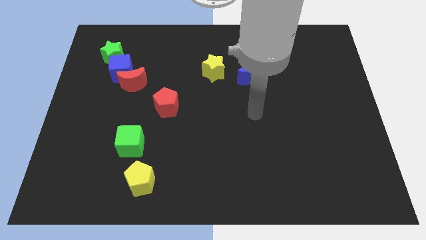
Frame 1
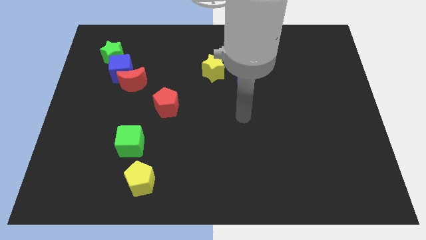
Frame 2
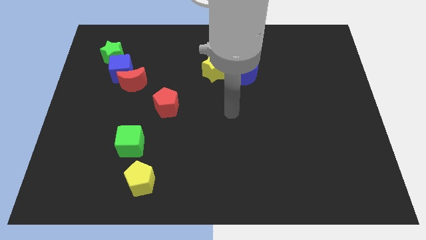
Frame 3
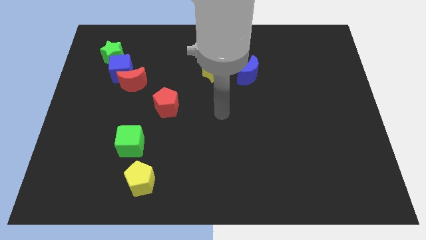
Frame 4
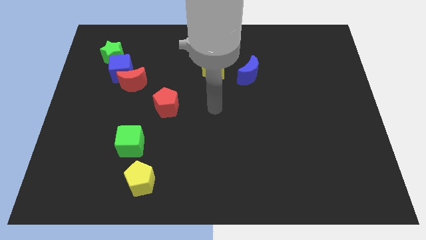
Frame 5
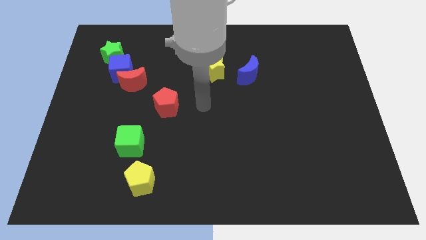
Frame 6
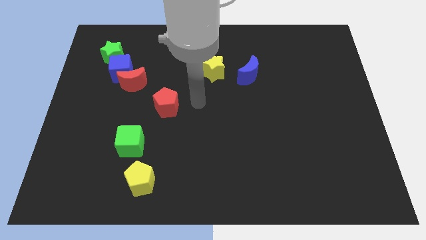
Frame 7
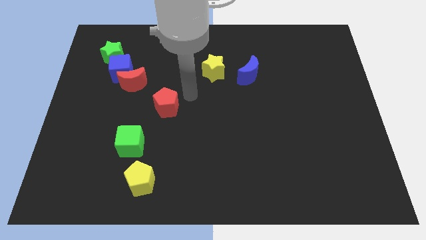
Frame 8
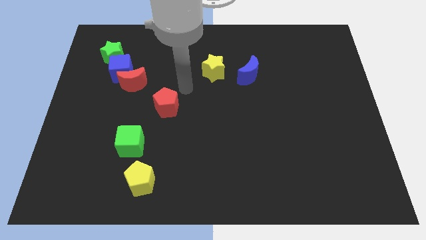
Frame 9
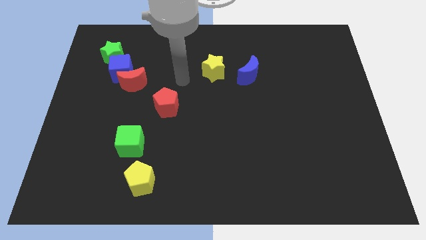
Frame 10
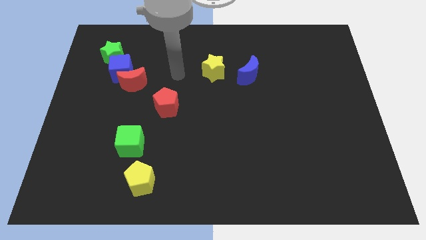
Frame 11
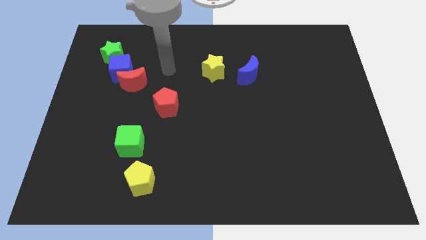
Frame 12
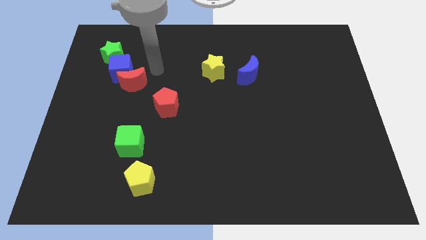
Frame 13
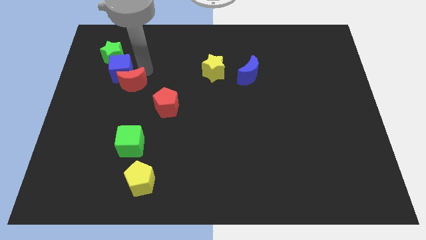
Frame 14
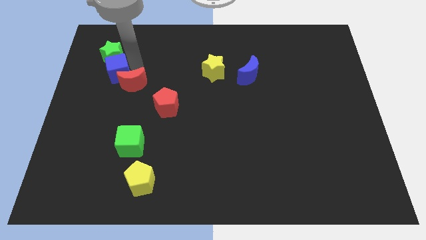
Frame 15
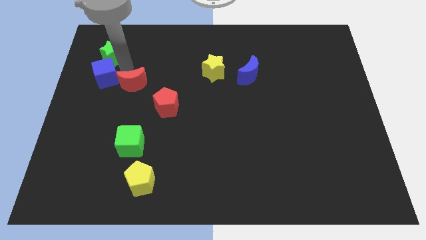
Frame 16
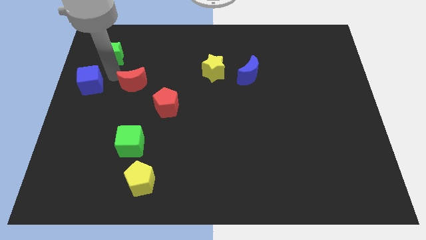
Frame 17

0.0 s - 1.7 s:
move the red moon away from the blue cube

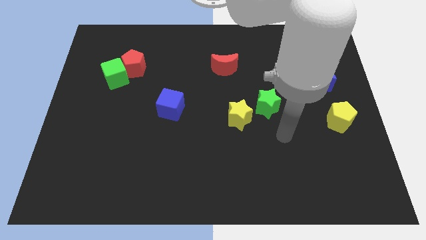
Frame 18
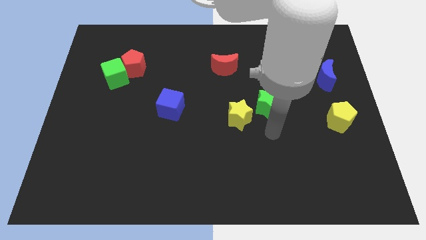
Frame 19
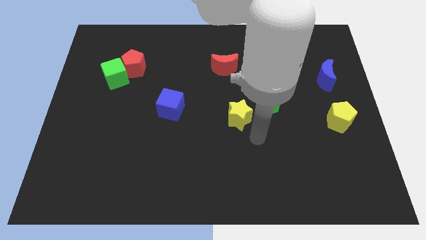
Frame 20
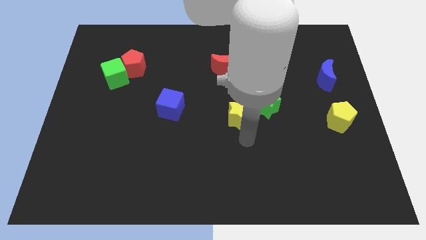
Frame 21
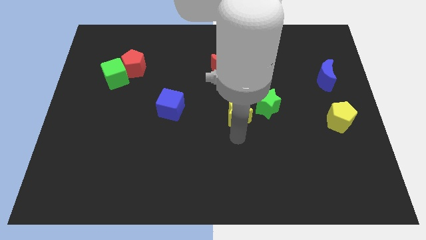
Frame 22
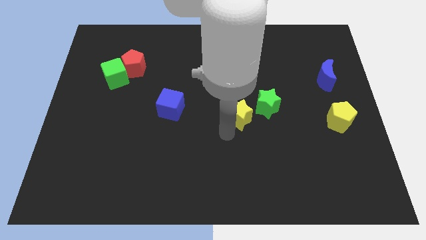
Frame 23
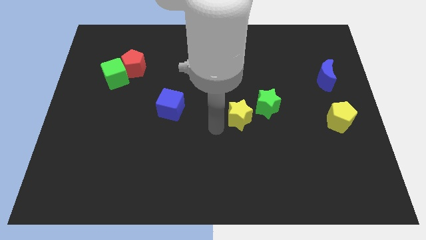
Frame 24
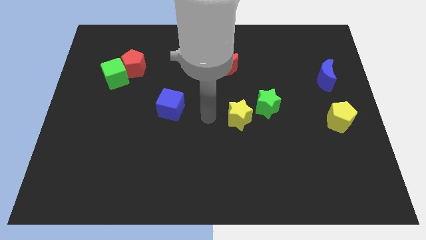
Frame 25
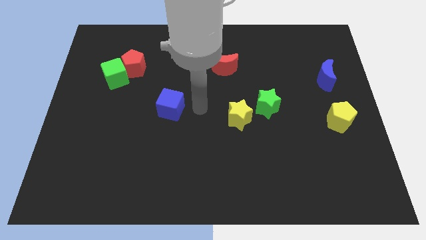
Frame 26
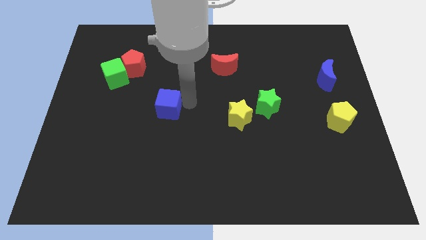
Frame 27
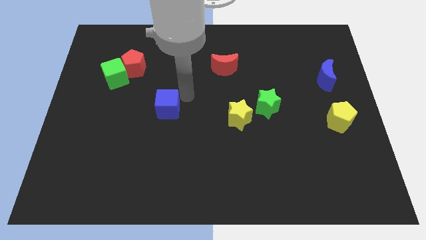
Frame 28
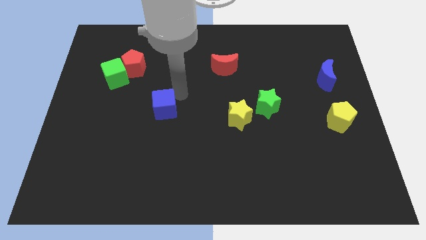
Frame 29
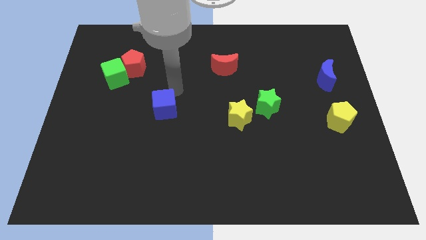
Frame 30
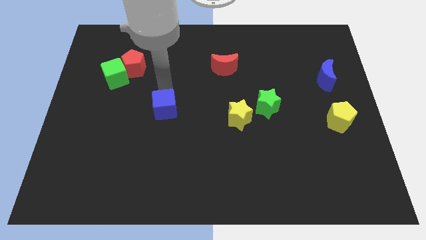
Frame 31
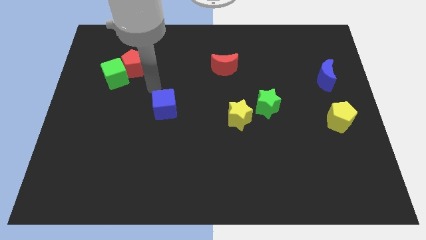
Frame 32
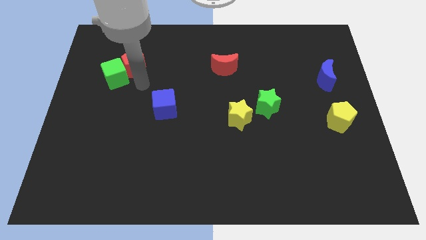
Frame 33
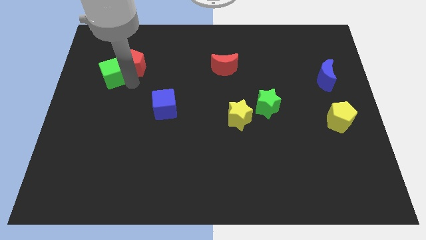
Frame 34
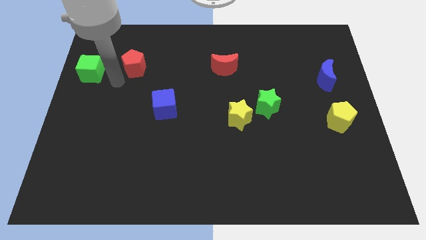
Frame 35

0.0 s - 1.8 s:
separate the red pentagon from the green cube

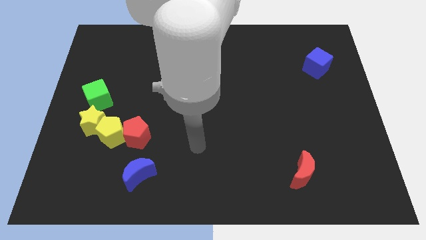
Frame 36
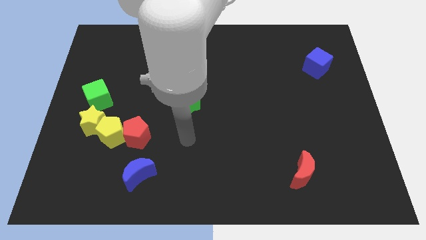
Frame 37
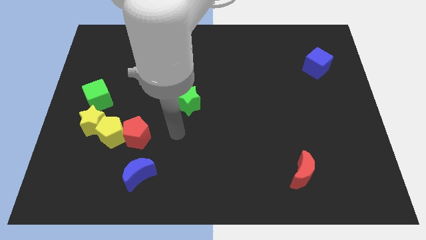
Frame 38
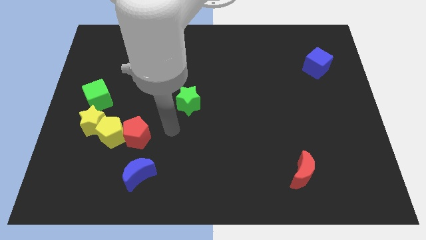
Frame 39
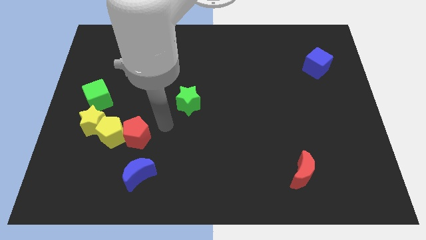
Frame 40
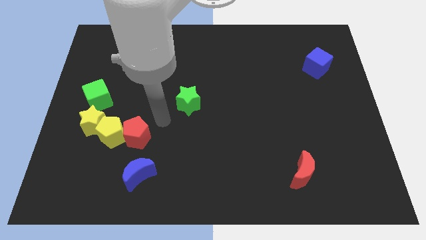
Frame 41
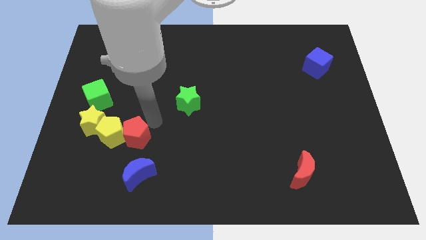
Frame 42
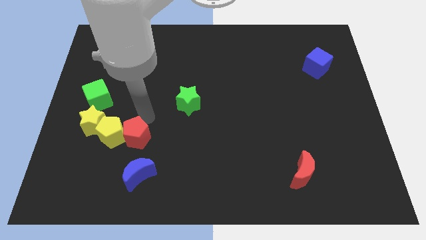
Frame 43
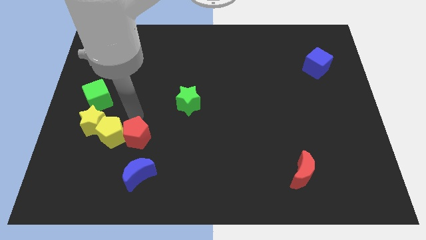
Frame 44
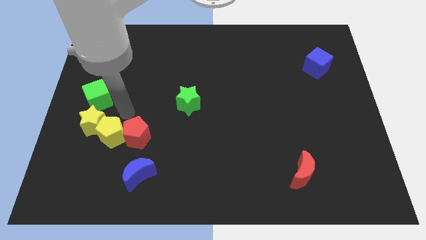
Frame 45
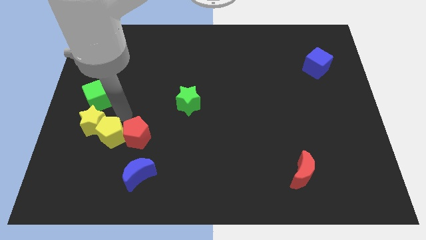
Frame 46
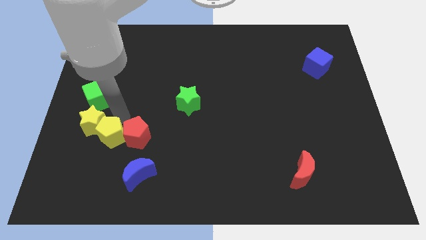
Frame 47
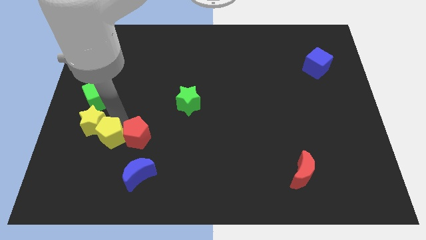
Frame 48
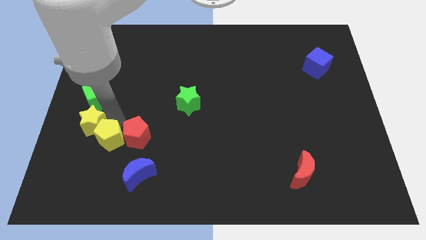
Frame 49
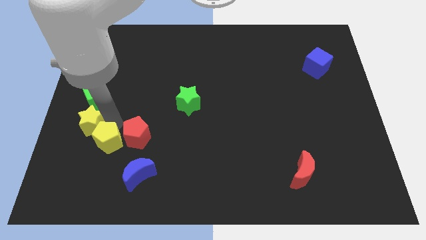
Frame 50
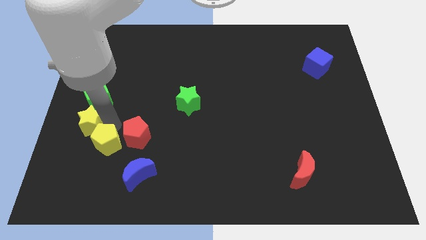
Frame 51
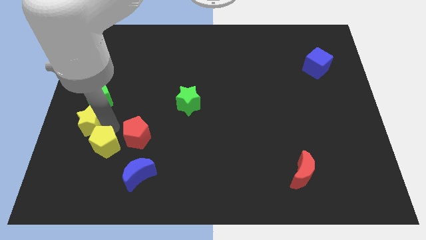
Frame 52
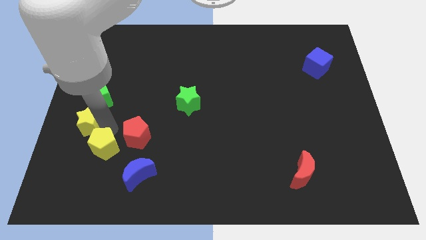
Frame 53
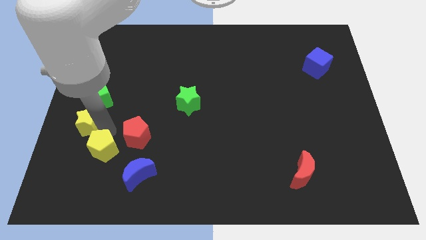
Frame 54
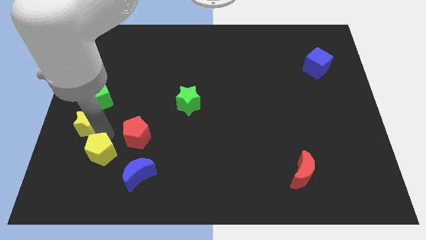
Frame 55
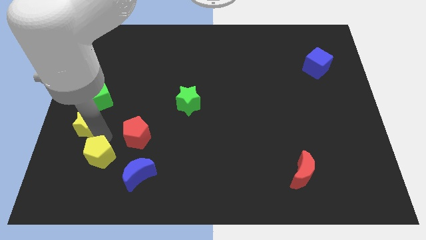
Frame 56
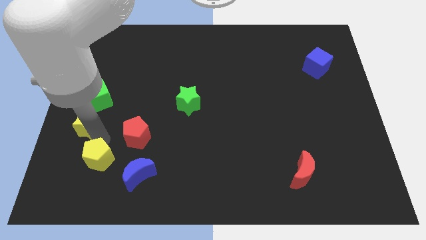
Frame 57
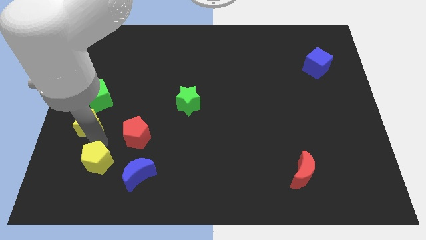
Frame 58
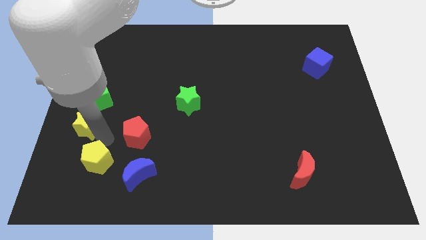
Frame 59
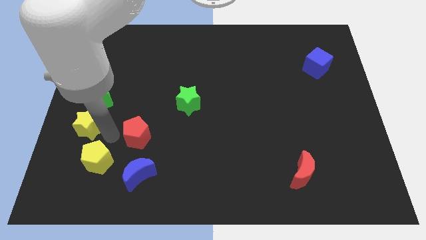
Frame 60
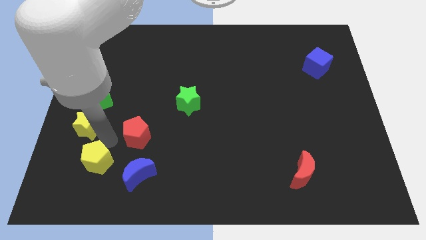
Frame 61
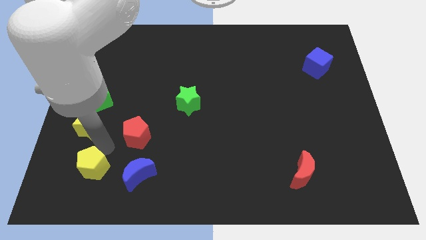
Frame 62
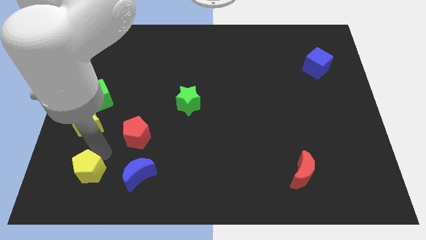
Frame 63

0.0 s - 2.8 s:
move the yellow pentagon away from the red pentagon and yellow star

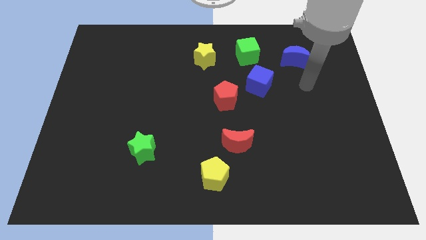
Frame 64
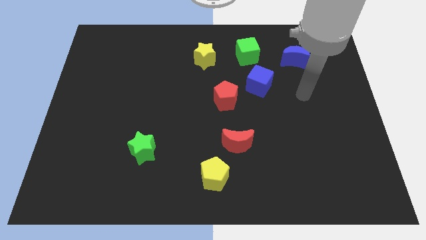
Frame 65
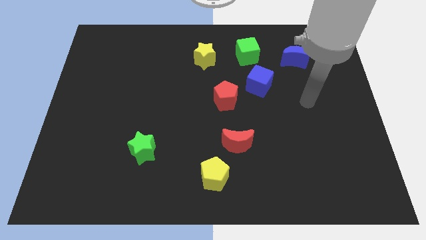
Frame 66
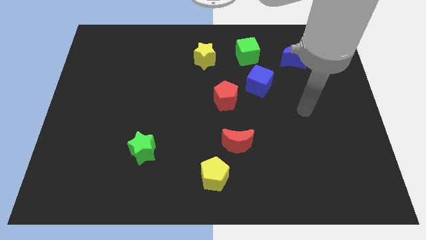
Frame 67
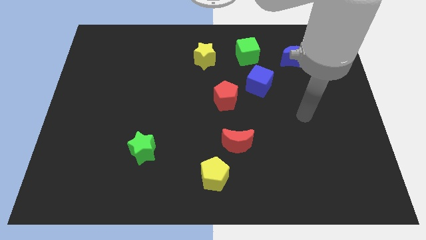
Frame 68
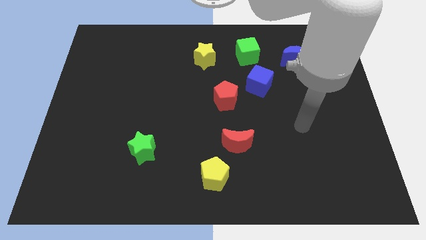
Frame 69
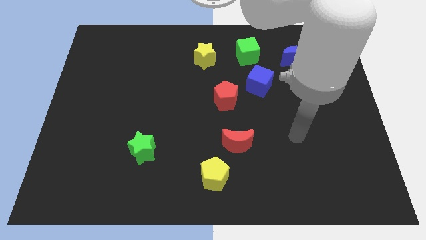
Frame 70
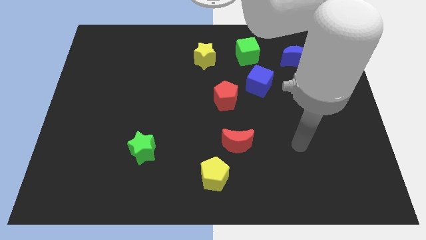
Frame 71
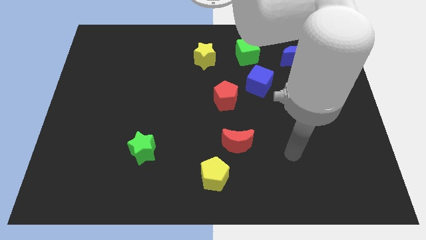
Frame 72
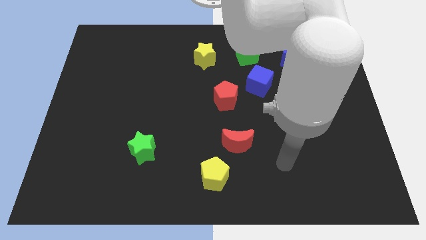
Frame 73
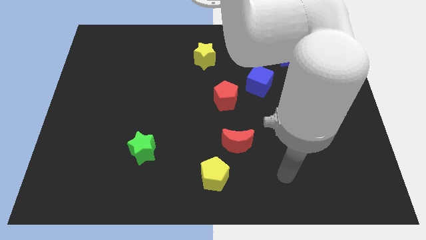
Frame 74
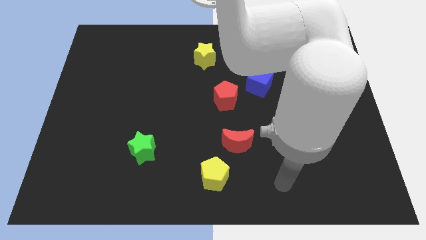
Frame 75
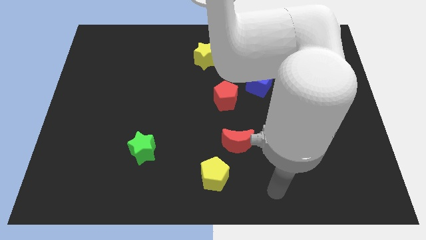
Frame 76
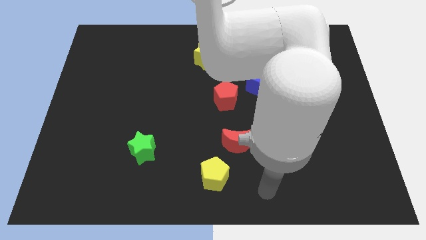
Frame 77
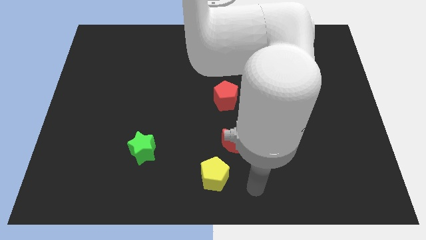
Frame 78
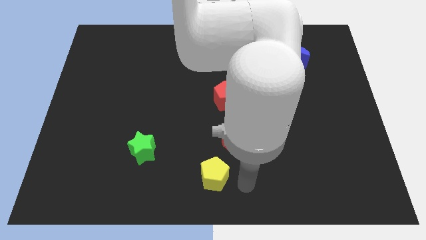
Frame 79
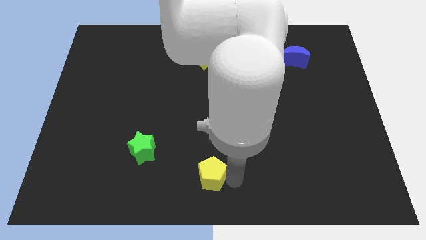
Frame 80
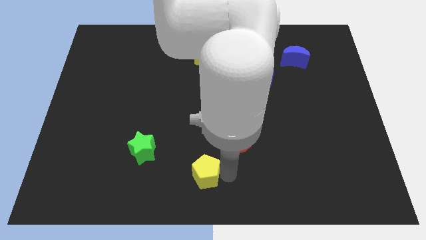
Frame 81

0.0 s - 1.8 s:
separate the red moon from the yellow pentagon

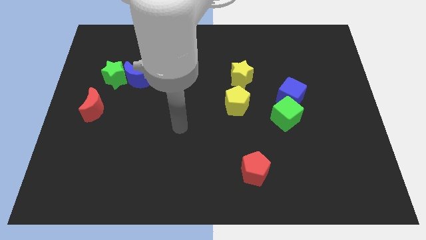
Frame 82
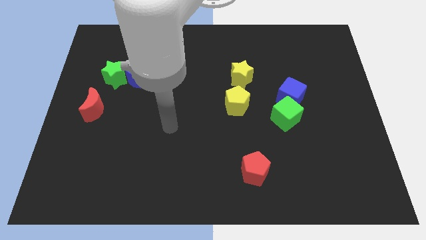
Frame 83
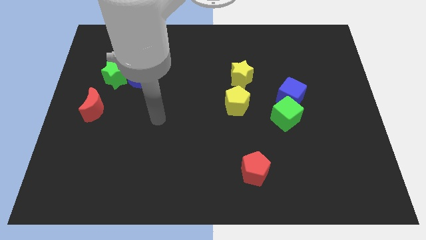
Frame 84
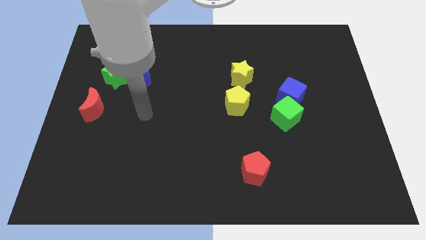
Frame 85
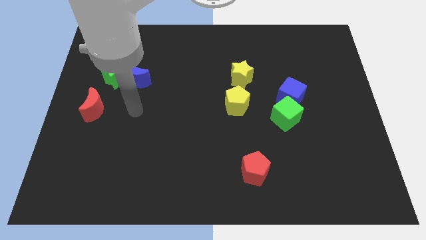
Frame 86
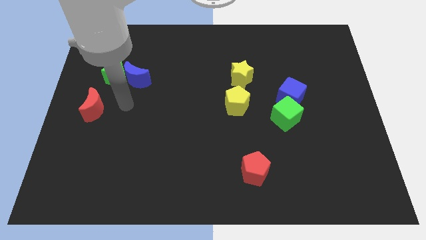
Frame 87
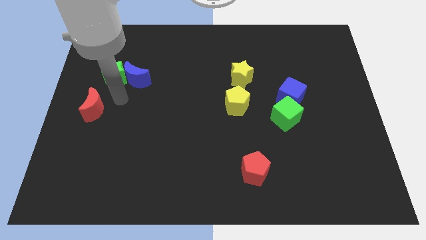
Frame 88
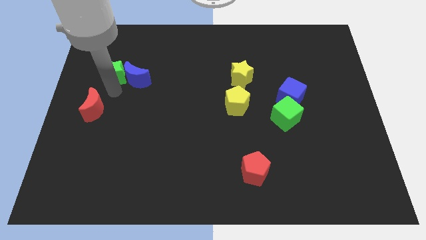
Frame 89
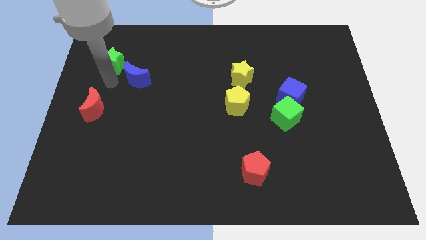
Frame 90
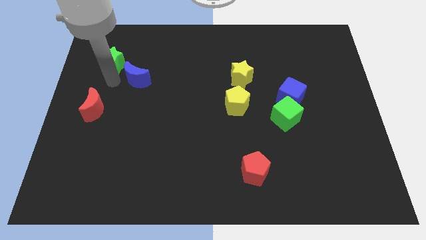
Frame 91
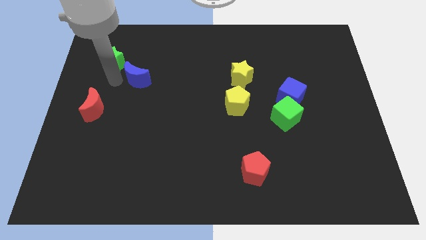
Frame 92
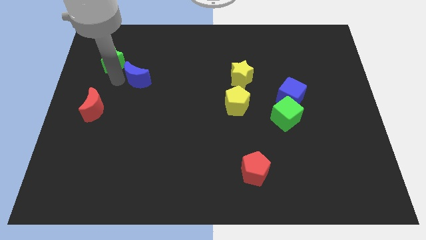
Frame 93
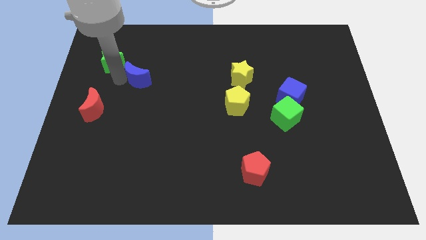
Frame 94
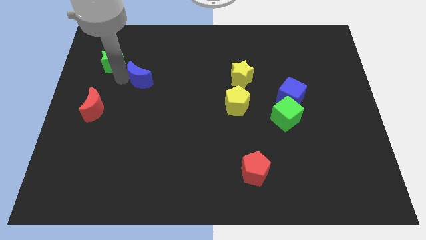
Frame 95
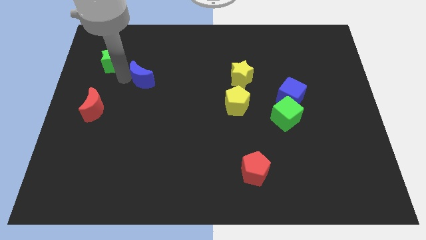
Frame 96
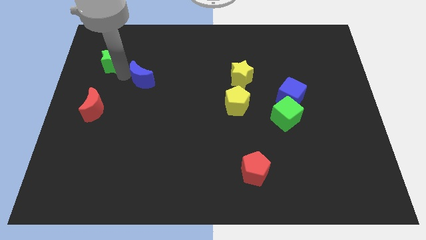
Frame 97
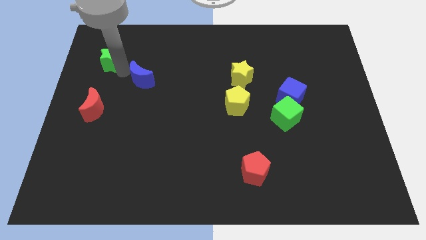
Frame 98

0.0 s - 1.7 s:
move the blue moon away from the green star
